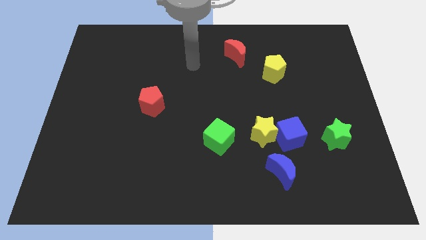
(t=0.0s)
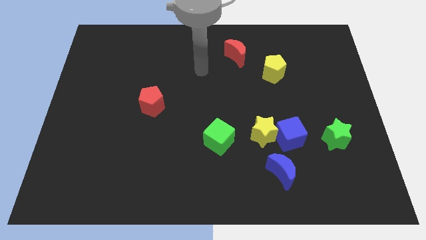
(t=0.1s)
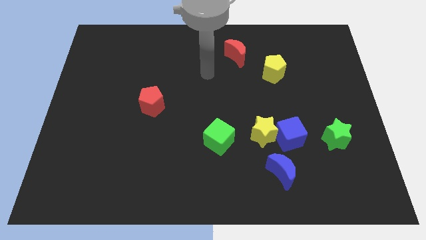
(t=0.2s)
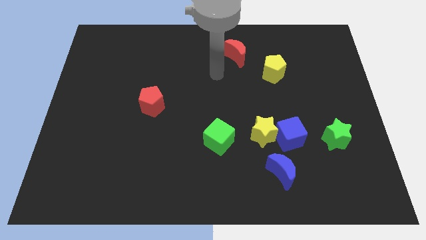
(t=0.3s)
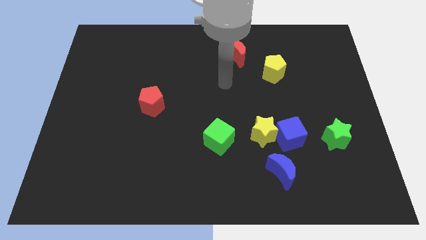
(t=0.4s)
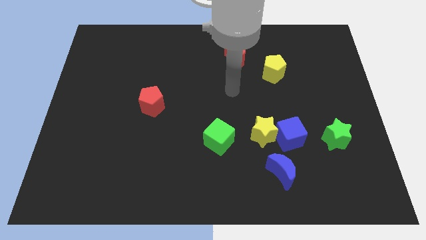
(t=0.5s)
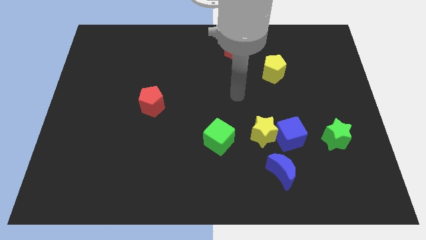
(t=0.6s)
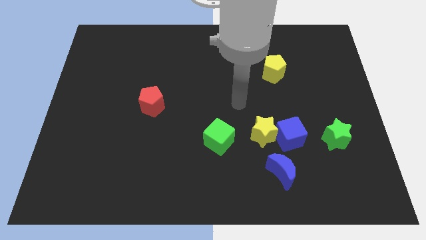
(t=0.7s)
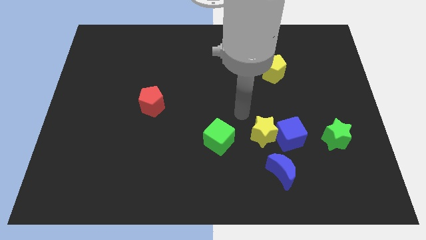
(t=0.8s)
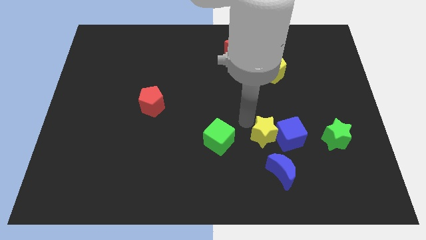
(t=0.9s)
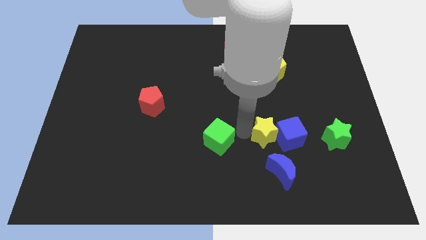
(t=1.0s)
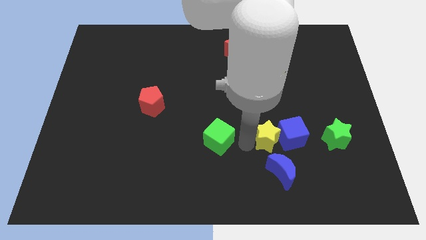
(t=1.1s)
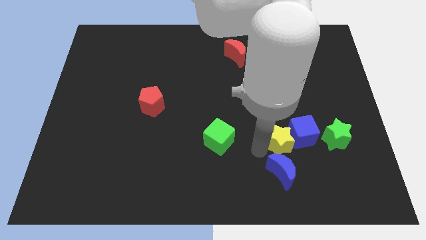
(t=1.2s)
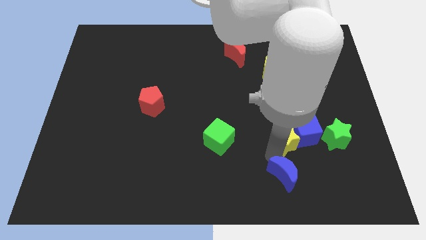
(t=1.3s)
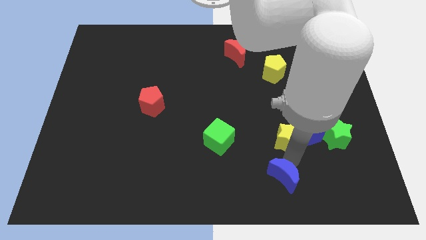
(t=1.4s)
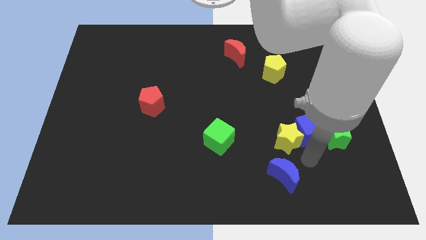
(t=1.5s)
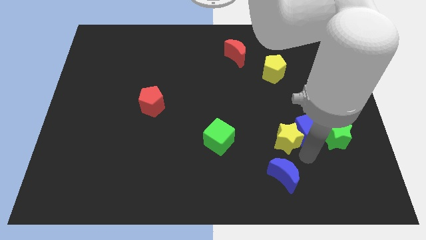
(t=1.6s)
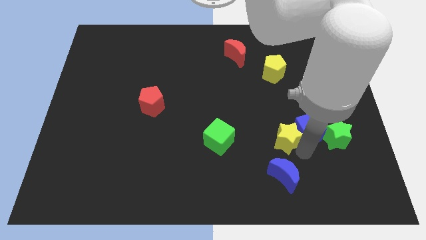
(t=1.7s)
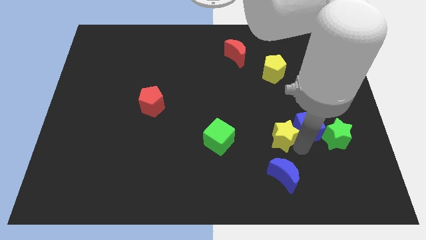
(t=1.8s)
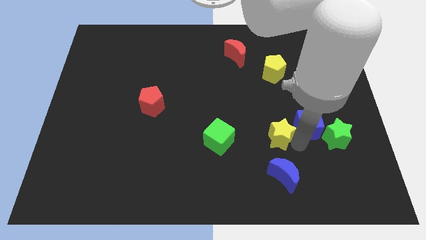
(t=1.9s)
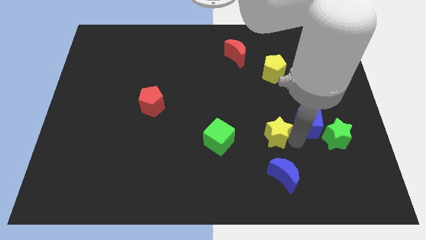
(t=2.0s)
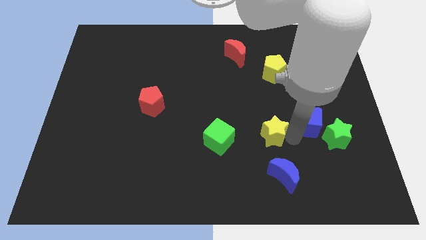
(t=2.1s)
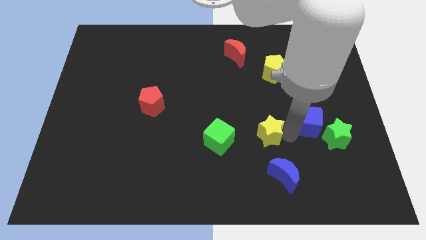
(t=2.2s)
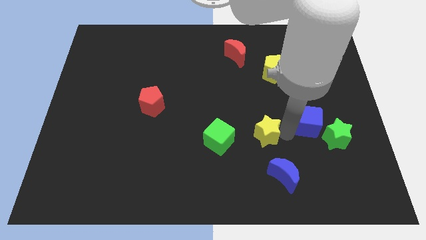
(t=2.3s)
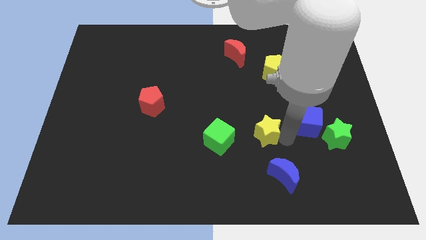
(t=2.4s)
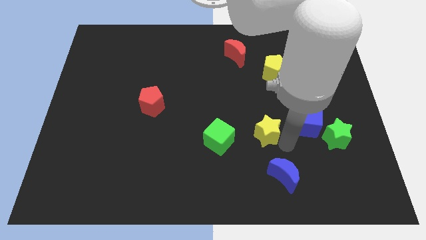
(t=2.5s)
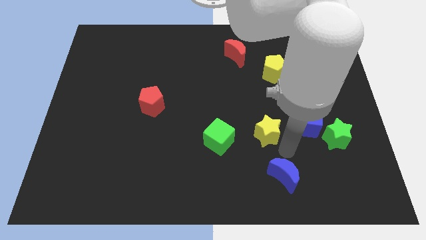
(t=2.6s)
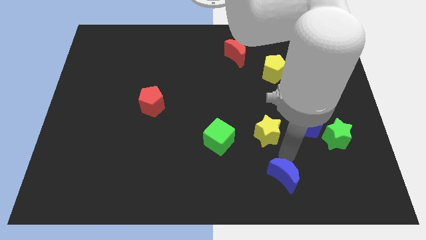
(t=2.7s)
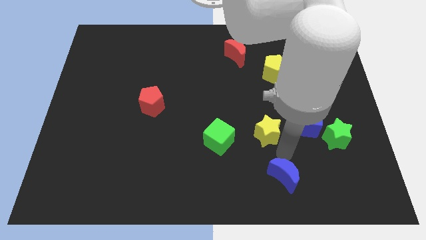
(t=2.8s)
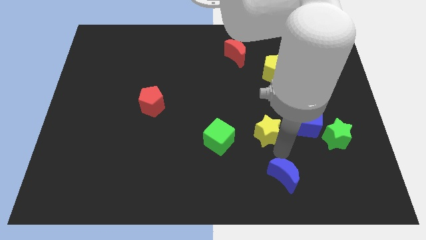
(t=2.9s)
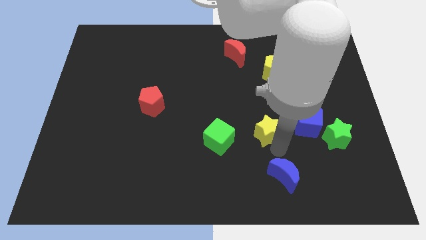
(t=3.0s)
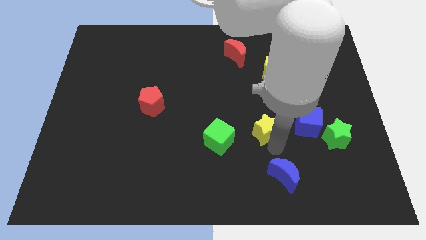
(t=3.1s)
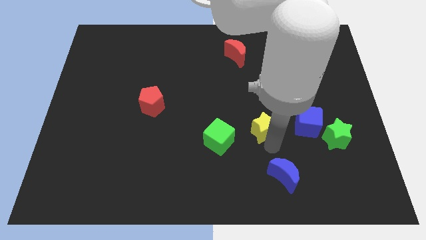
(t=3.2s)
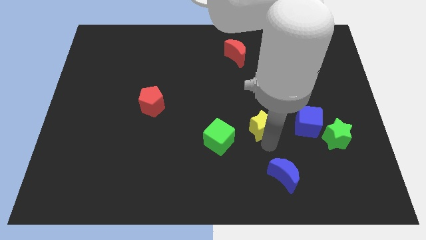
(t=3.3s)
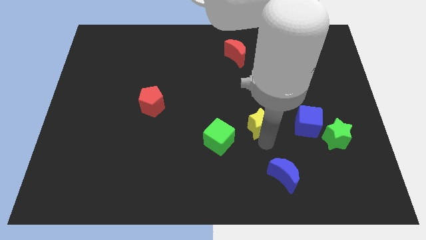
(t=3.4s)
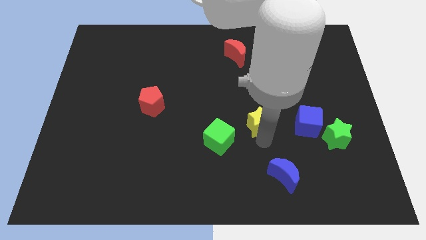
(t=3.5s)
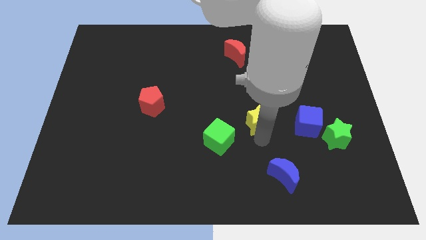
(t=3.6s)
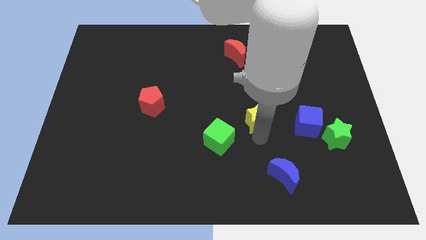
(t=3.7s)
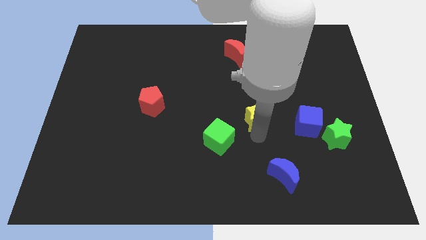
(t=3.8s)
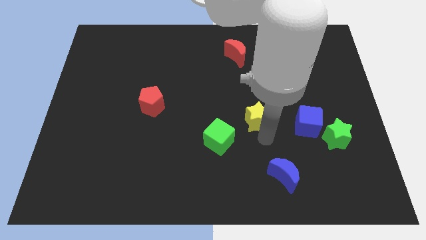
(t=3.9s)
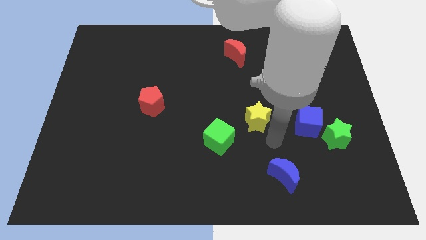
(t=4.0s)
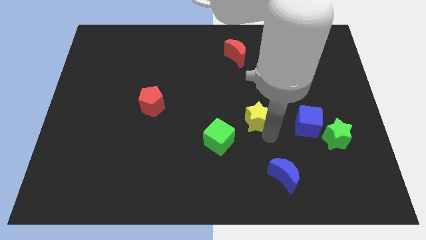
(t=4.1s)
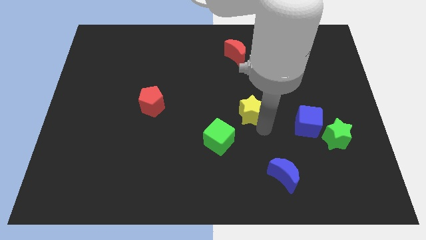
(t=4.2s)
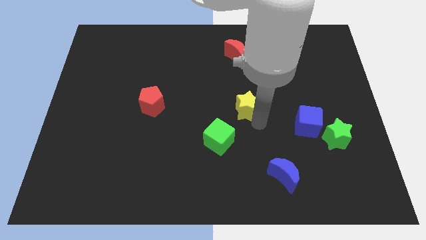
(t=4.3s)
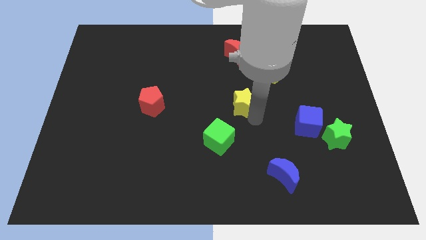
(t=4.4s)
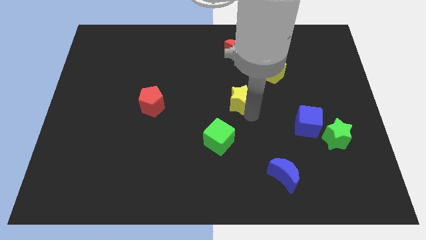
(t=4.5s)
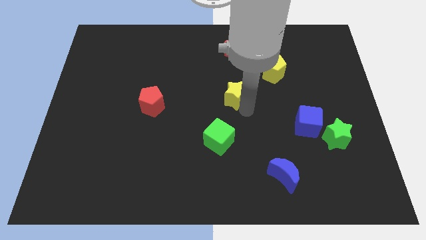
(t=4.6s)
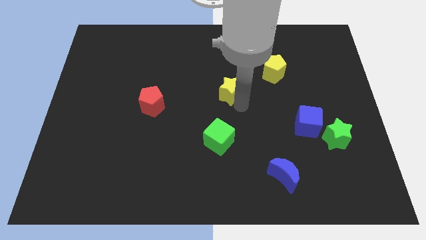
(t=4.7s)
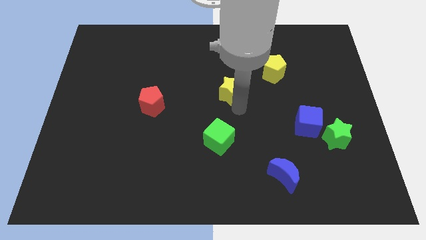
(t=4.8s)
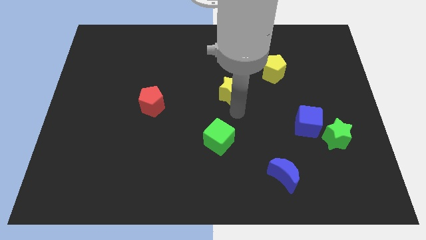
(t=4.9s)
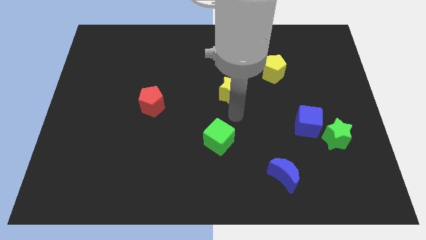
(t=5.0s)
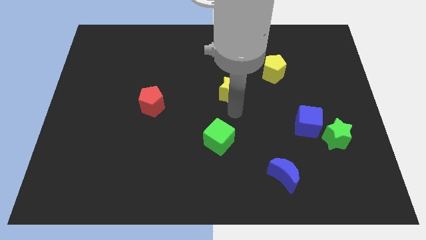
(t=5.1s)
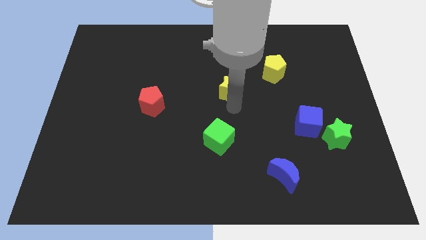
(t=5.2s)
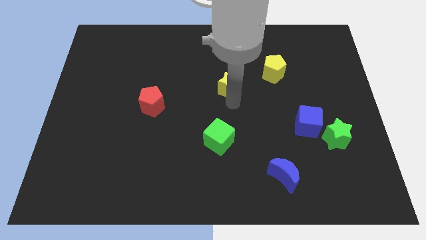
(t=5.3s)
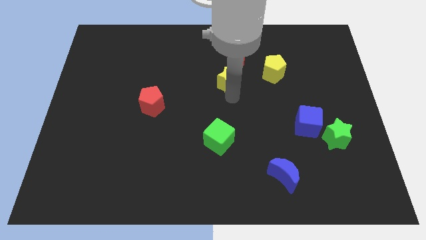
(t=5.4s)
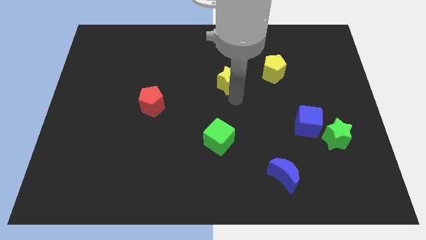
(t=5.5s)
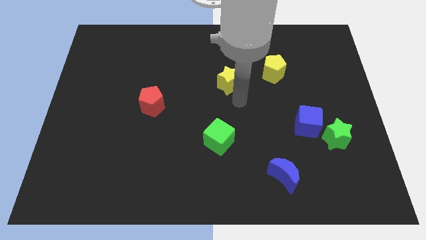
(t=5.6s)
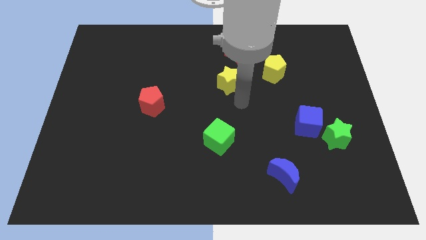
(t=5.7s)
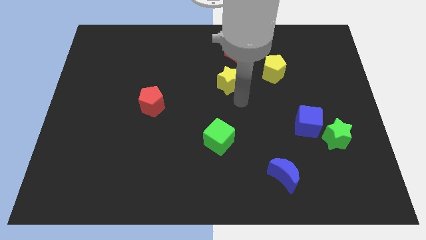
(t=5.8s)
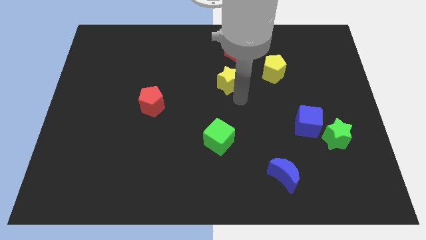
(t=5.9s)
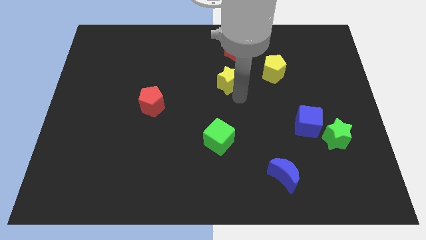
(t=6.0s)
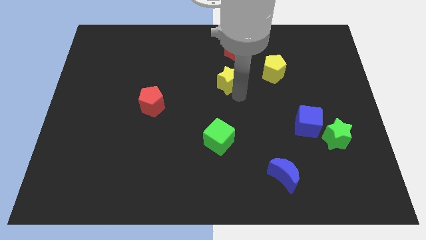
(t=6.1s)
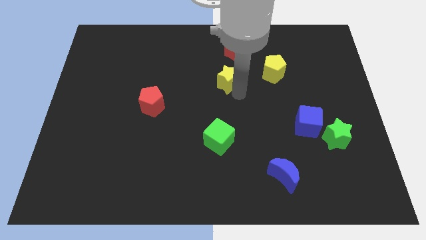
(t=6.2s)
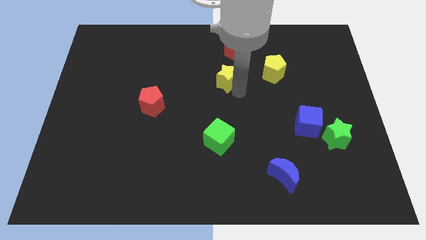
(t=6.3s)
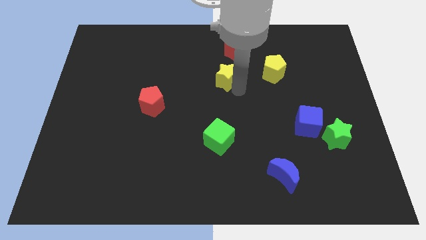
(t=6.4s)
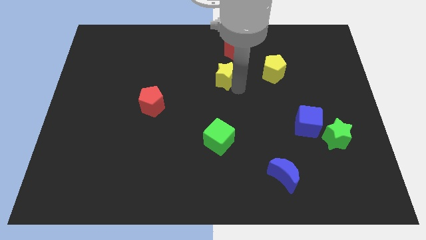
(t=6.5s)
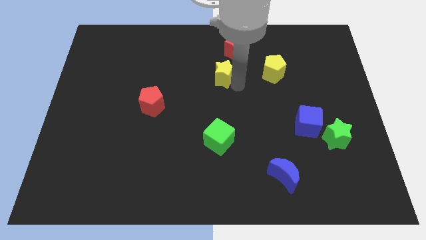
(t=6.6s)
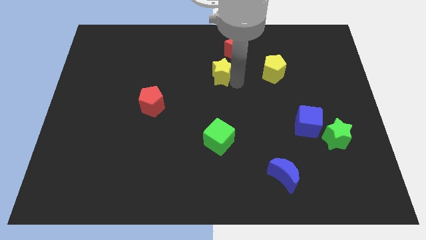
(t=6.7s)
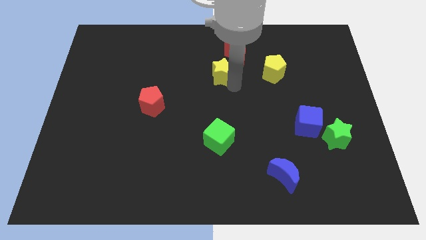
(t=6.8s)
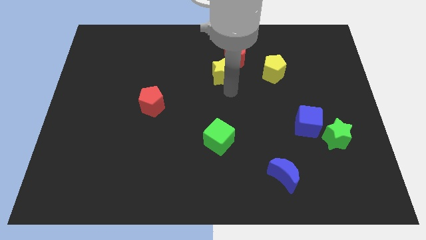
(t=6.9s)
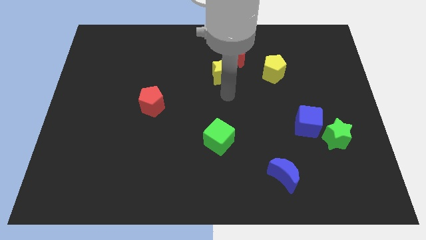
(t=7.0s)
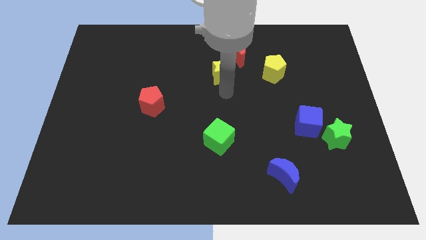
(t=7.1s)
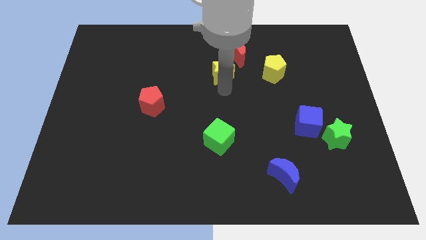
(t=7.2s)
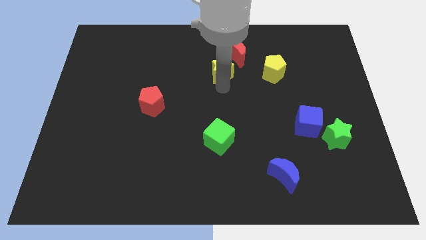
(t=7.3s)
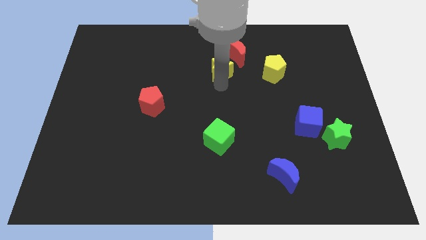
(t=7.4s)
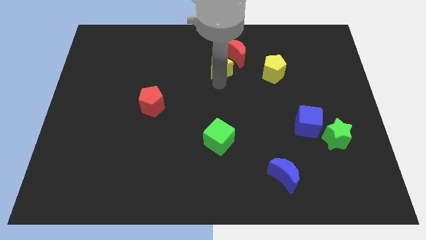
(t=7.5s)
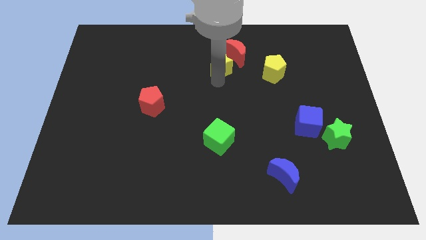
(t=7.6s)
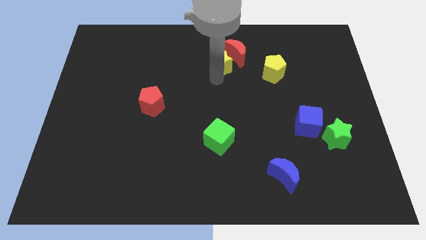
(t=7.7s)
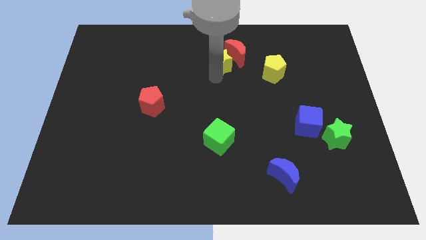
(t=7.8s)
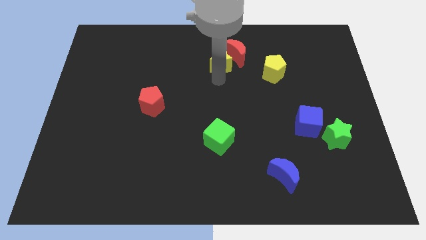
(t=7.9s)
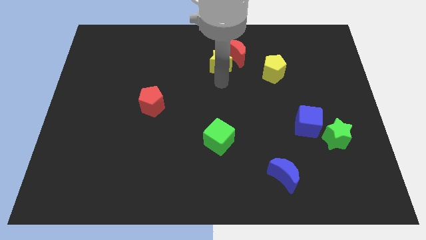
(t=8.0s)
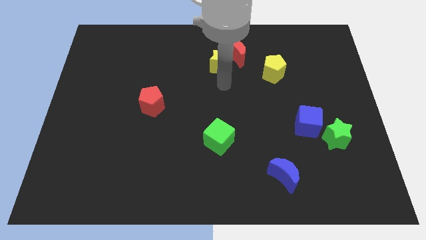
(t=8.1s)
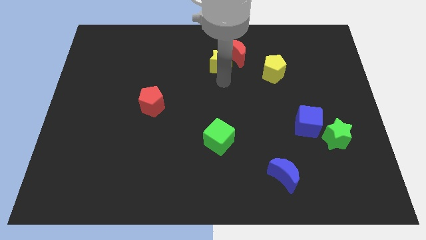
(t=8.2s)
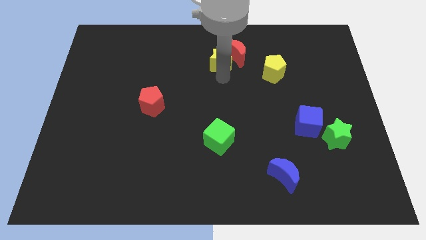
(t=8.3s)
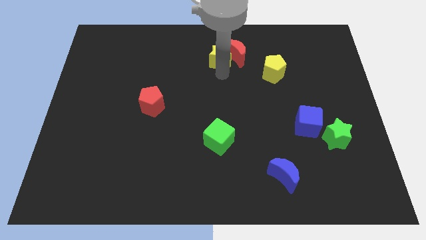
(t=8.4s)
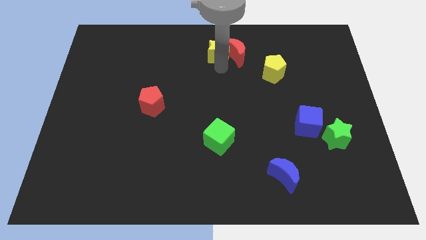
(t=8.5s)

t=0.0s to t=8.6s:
push the yellow star to the towards your base
